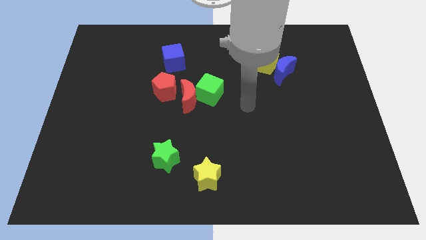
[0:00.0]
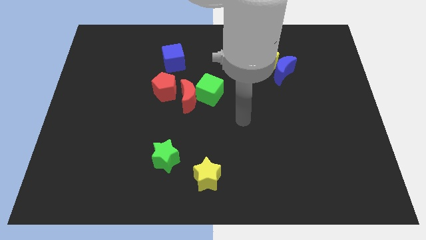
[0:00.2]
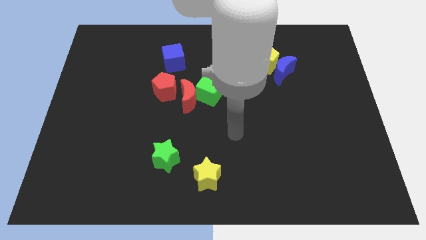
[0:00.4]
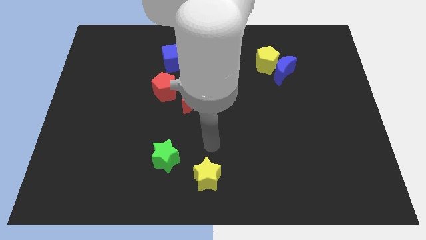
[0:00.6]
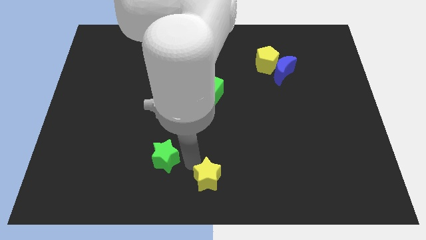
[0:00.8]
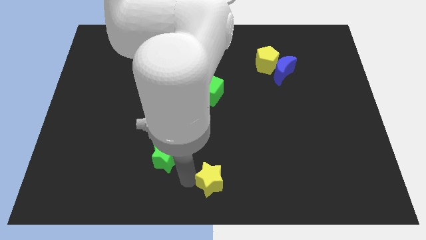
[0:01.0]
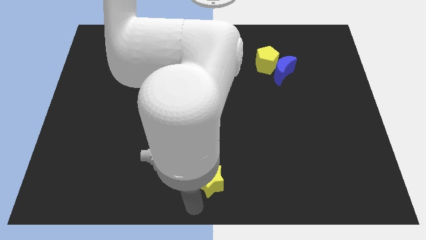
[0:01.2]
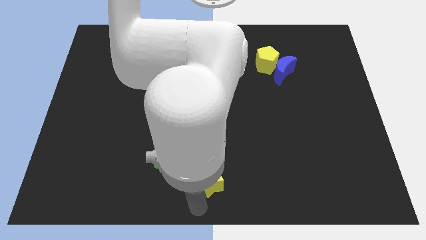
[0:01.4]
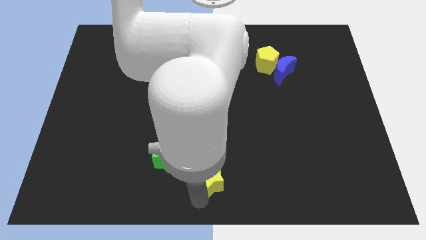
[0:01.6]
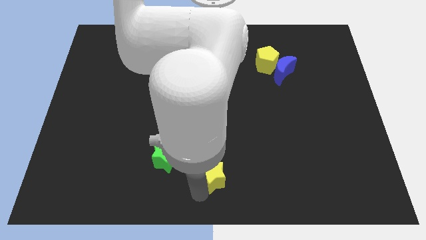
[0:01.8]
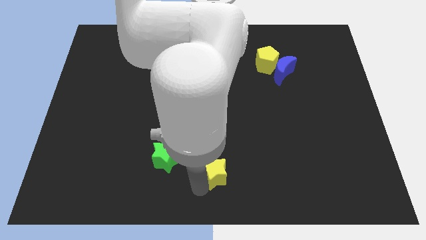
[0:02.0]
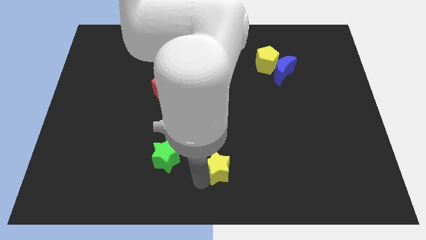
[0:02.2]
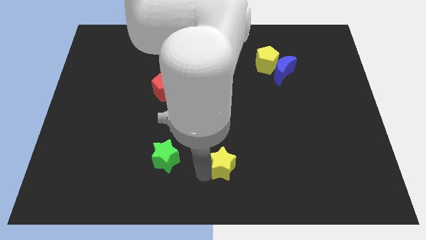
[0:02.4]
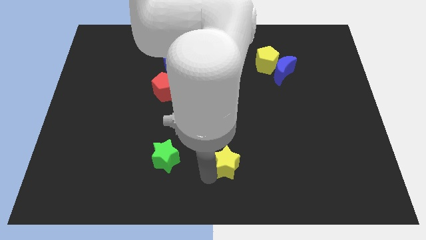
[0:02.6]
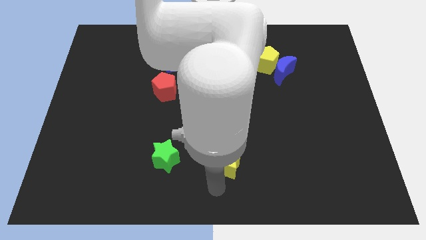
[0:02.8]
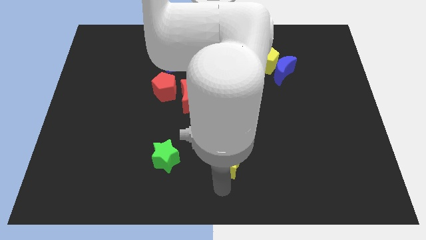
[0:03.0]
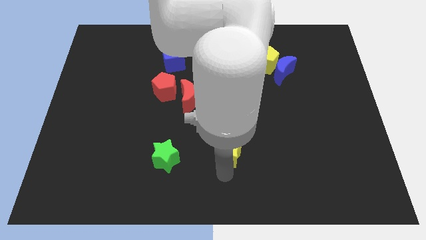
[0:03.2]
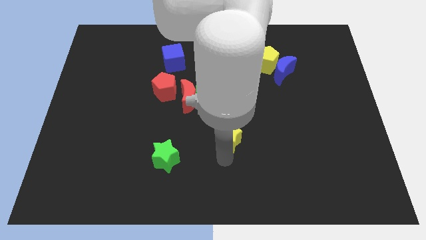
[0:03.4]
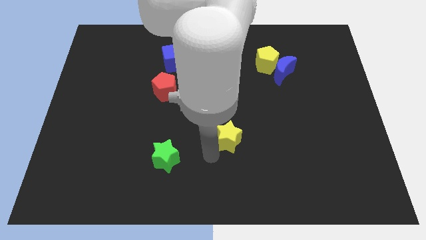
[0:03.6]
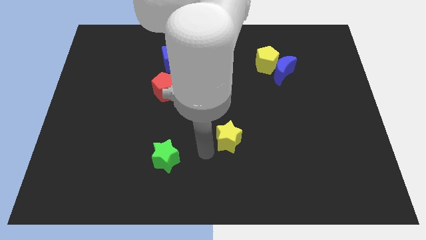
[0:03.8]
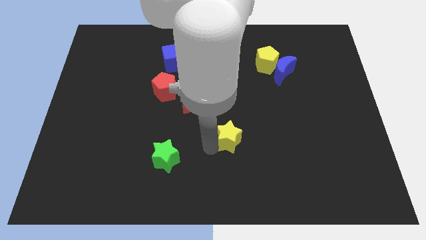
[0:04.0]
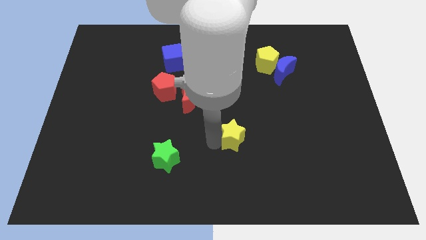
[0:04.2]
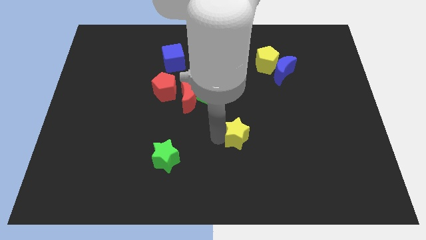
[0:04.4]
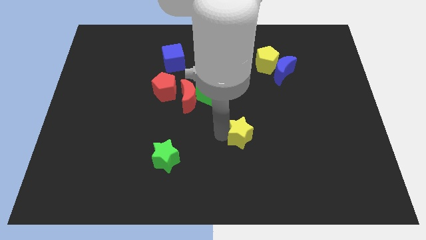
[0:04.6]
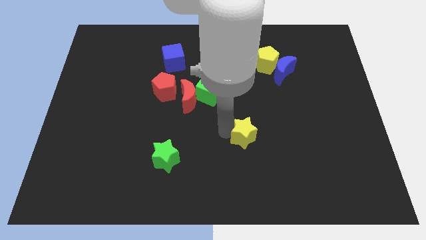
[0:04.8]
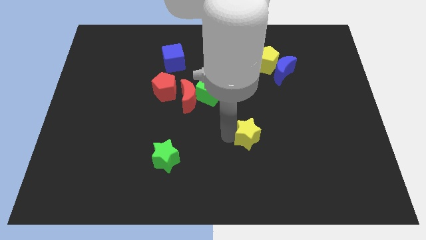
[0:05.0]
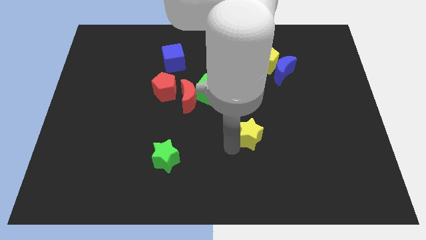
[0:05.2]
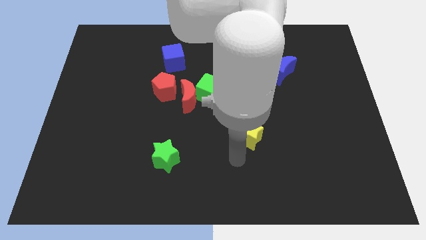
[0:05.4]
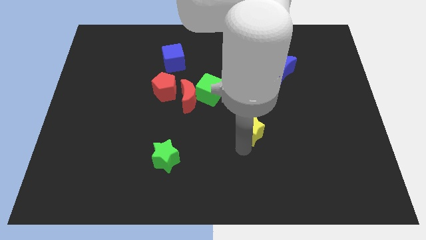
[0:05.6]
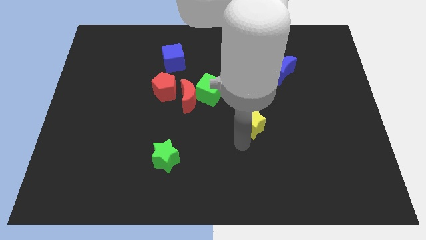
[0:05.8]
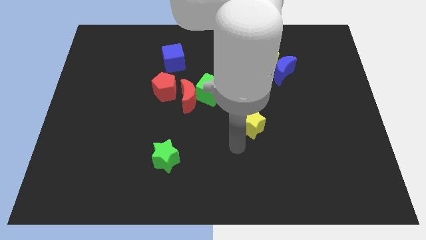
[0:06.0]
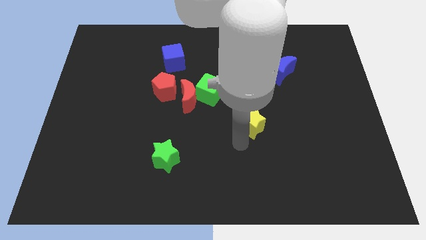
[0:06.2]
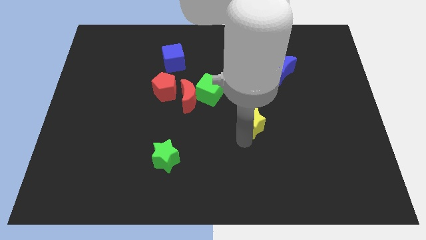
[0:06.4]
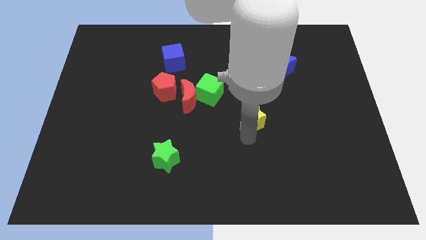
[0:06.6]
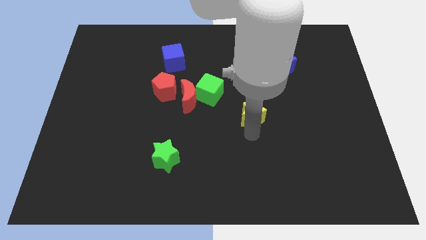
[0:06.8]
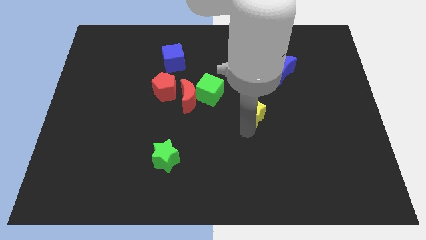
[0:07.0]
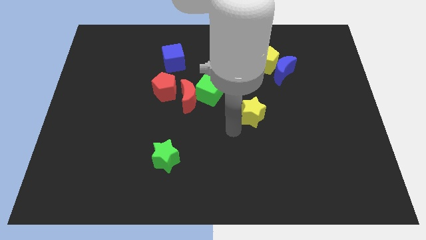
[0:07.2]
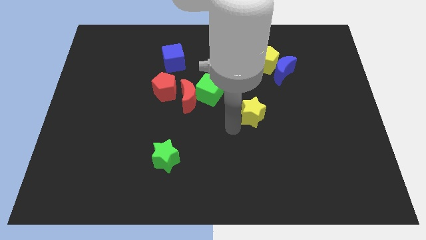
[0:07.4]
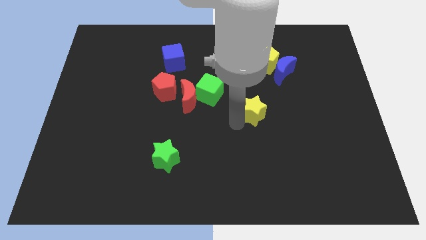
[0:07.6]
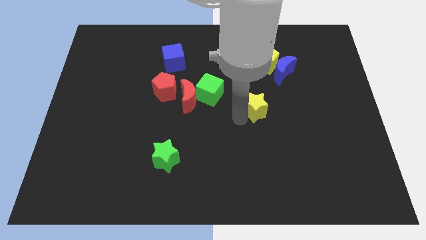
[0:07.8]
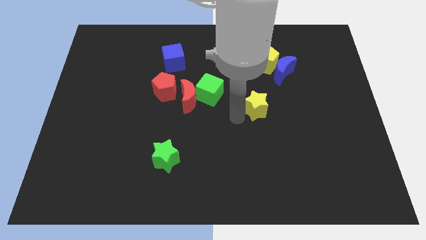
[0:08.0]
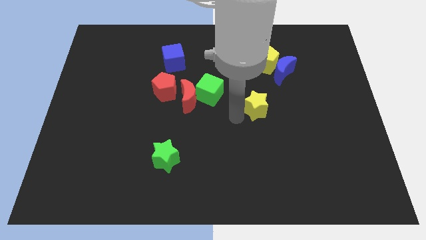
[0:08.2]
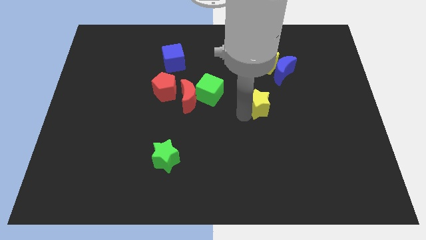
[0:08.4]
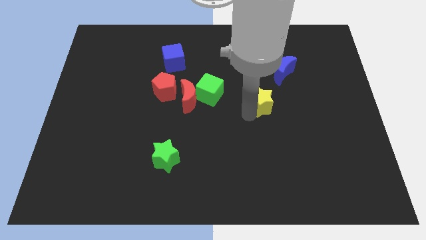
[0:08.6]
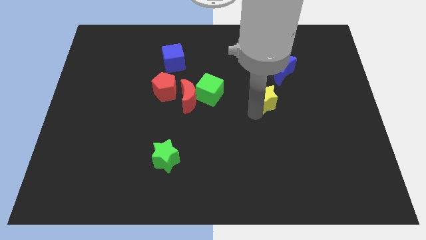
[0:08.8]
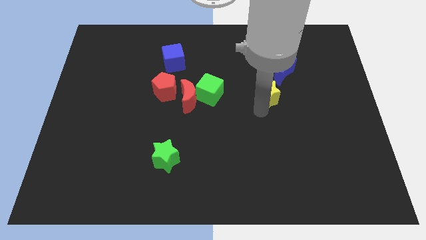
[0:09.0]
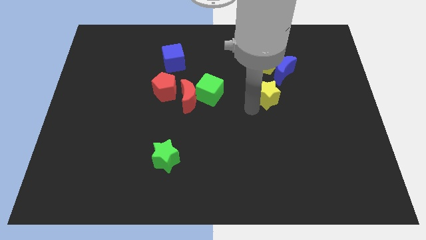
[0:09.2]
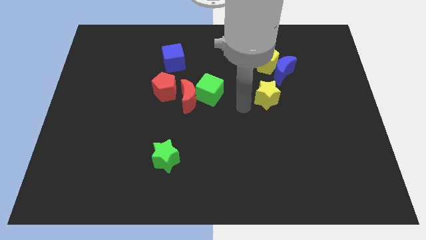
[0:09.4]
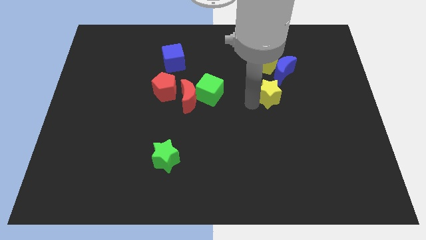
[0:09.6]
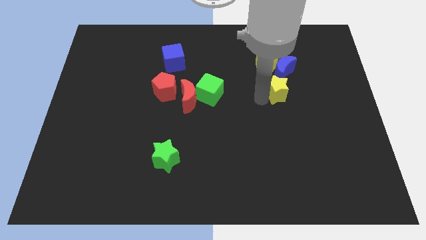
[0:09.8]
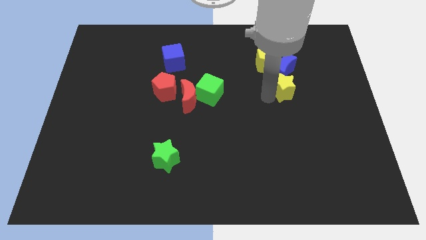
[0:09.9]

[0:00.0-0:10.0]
move the yellow star to the bottom right side of the yellow pentagon

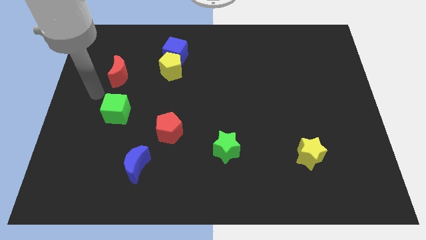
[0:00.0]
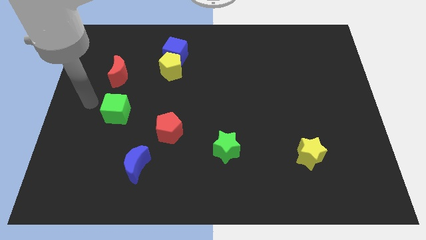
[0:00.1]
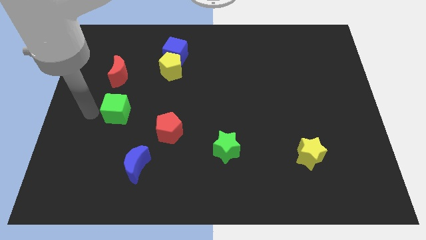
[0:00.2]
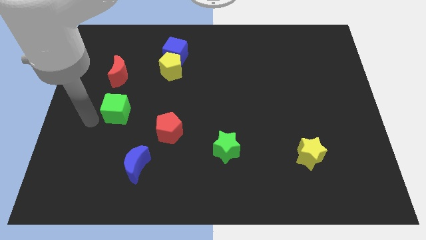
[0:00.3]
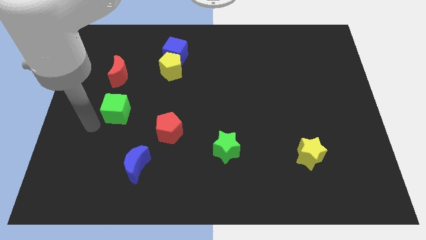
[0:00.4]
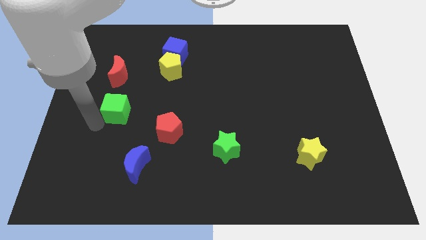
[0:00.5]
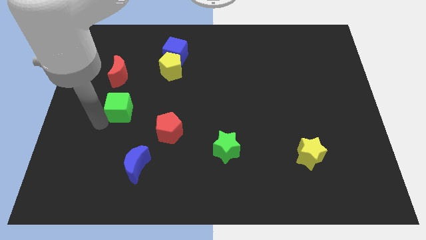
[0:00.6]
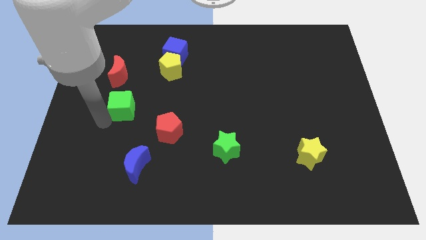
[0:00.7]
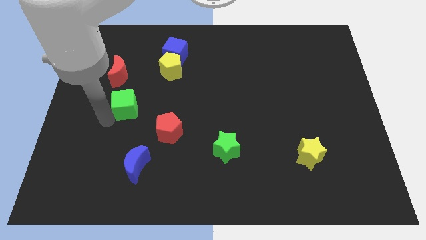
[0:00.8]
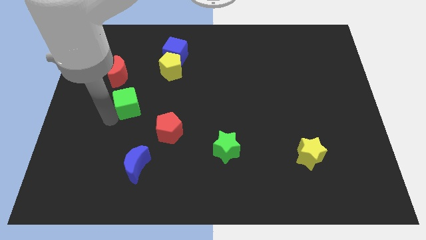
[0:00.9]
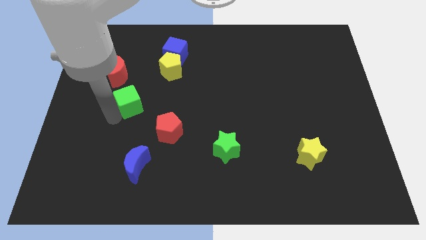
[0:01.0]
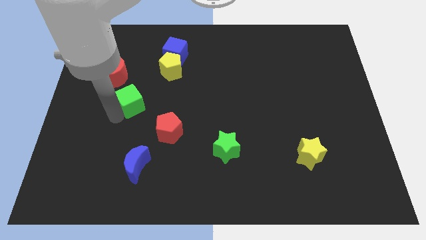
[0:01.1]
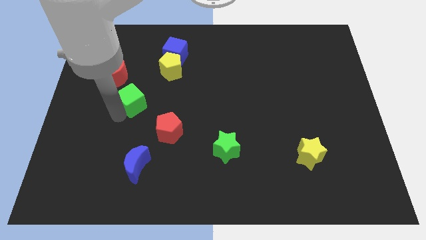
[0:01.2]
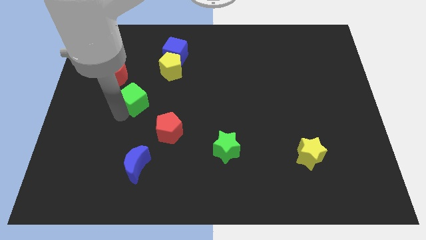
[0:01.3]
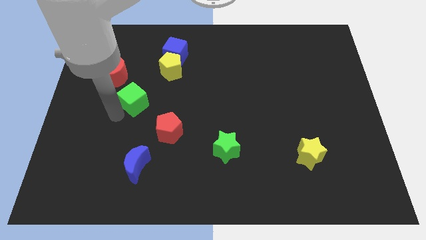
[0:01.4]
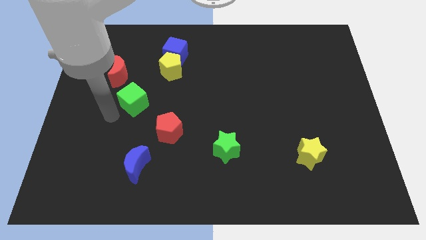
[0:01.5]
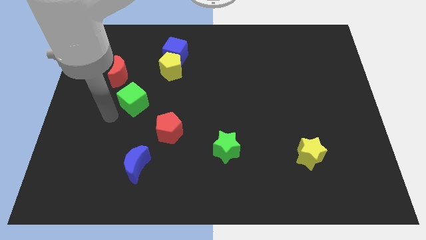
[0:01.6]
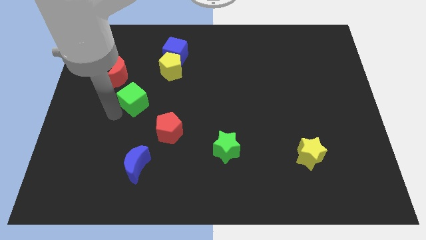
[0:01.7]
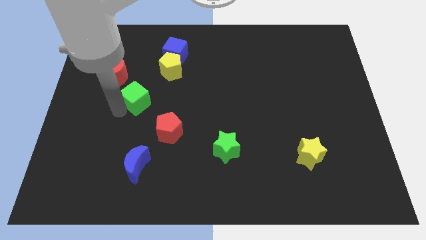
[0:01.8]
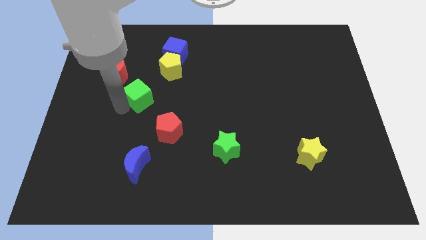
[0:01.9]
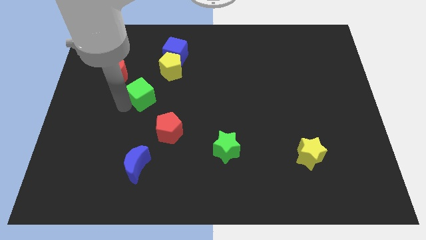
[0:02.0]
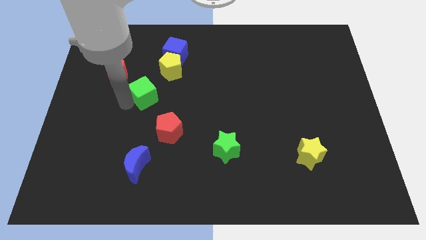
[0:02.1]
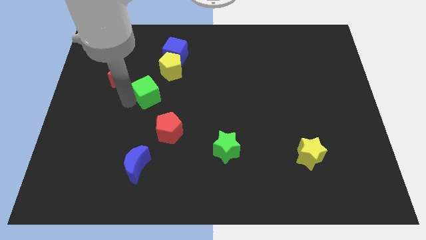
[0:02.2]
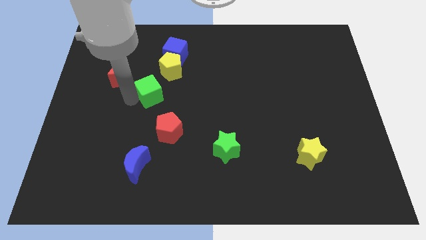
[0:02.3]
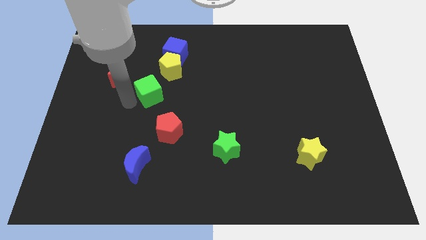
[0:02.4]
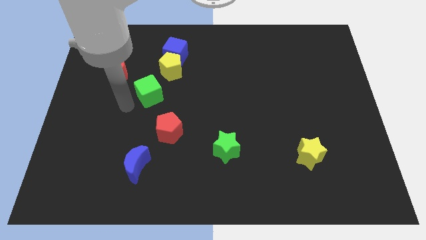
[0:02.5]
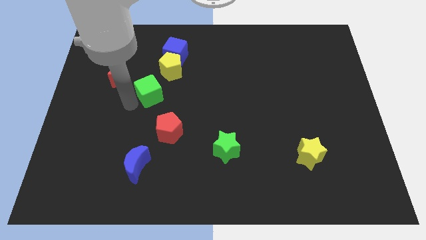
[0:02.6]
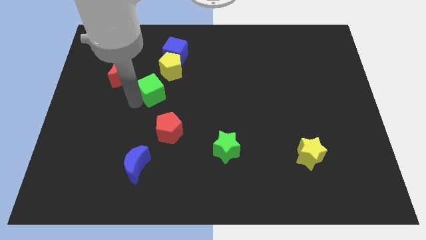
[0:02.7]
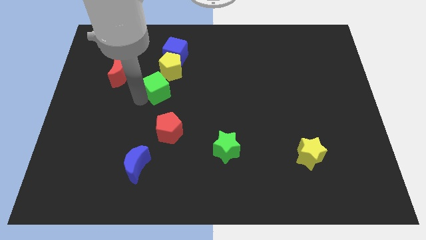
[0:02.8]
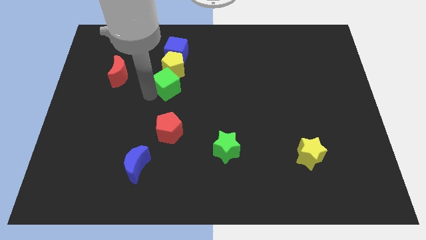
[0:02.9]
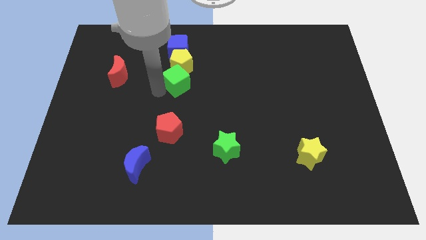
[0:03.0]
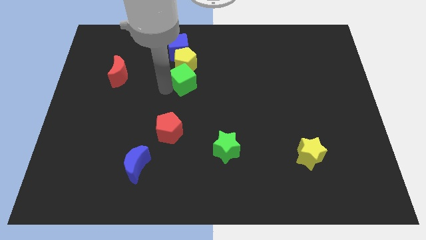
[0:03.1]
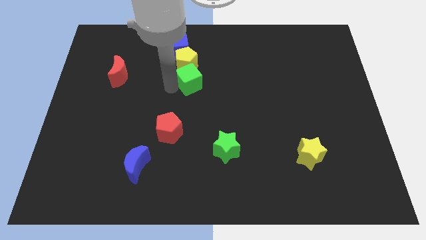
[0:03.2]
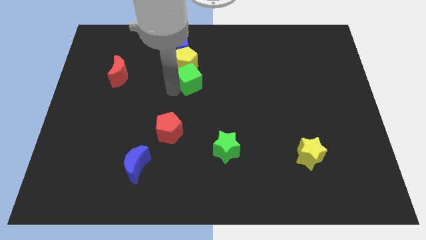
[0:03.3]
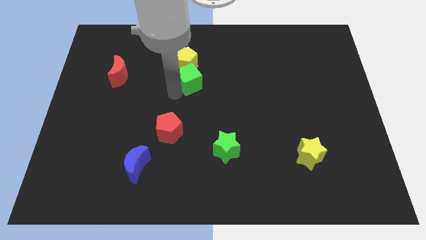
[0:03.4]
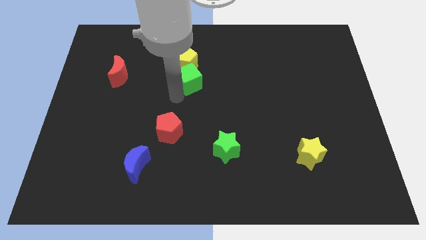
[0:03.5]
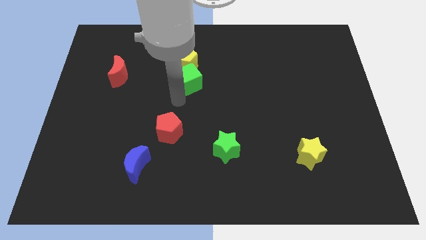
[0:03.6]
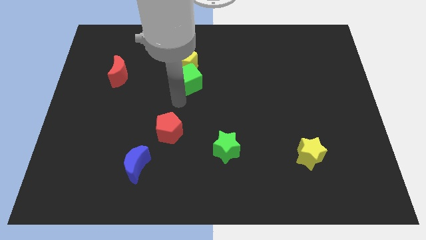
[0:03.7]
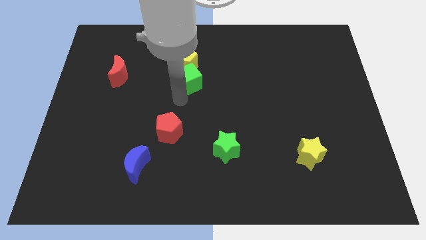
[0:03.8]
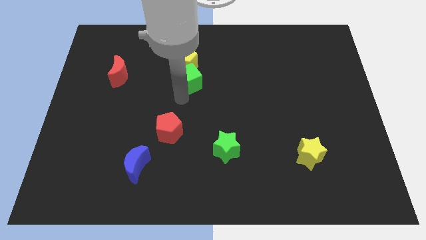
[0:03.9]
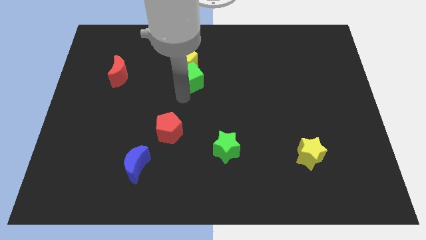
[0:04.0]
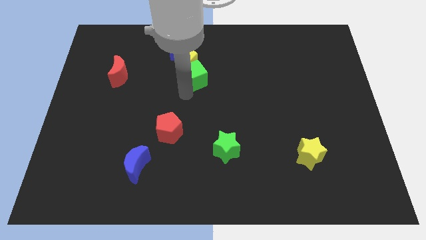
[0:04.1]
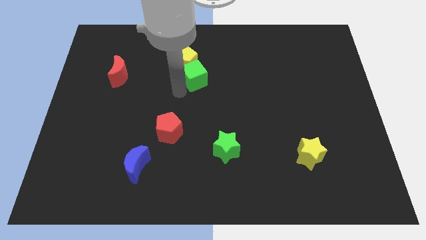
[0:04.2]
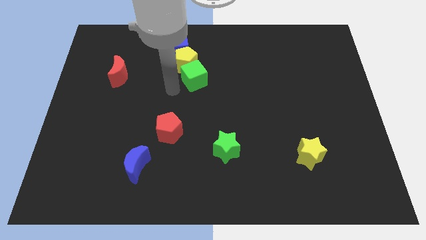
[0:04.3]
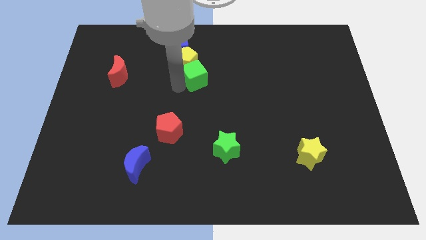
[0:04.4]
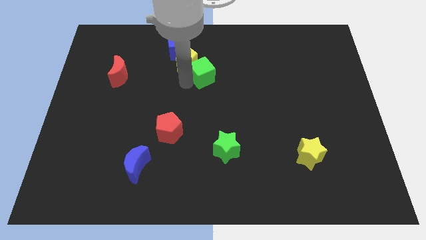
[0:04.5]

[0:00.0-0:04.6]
slide the green cube to the right of the yellow pentagon
